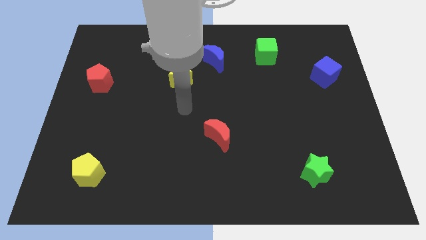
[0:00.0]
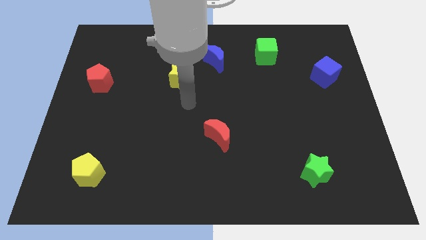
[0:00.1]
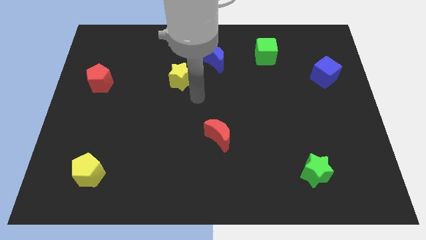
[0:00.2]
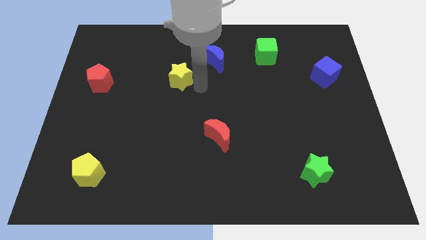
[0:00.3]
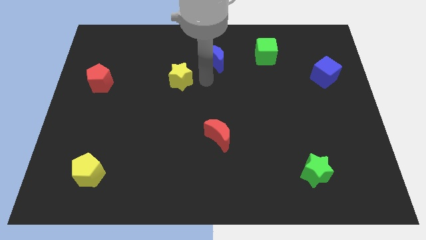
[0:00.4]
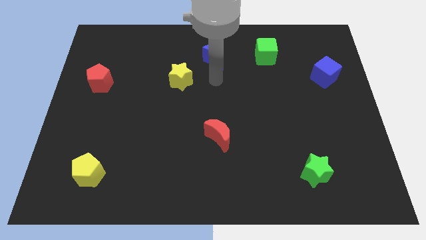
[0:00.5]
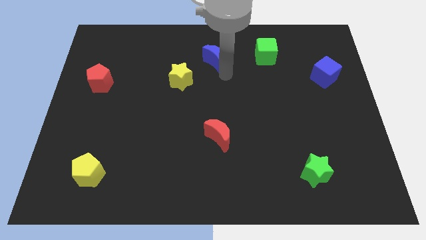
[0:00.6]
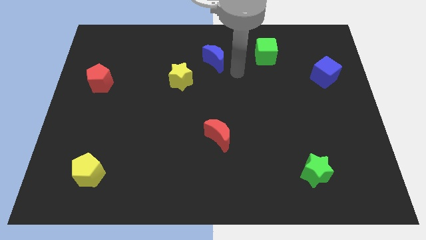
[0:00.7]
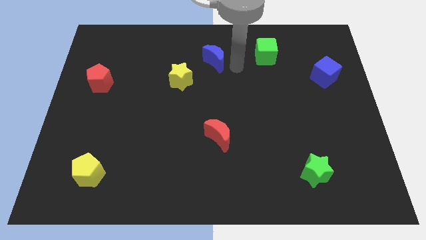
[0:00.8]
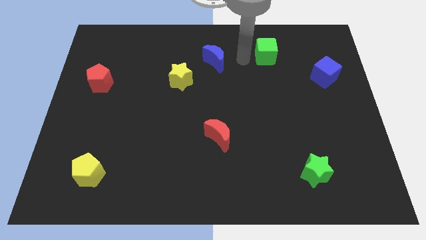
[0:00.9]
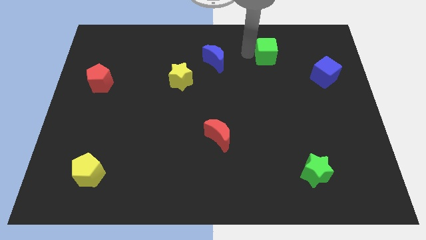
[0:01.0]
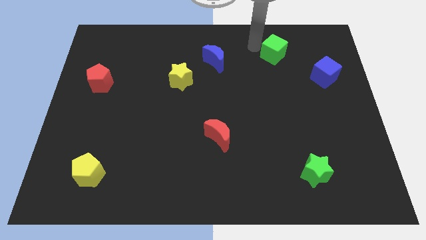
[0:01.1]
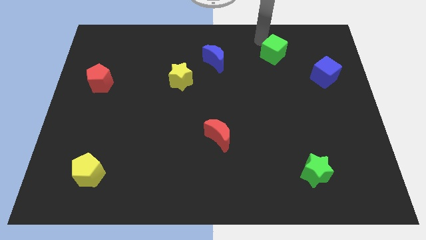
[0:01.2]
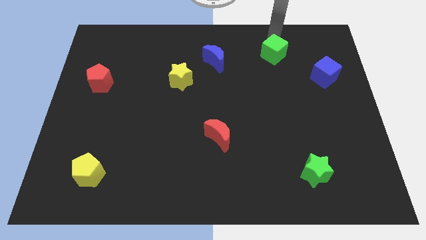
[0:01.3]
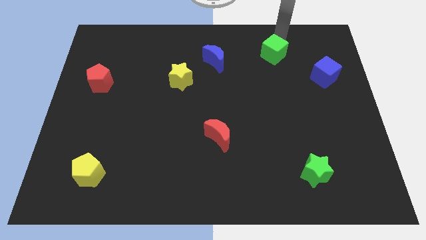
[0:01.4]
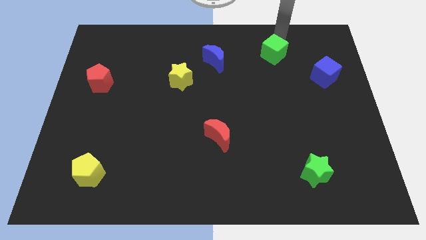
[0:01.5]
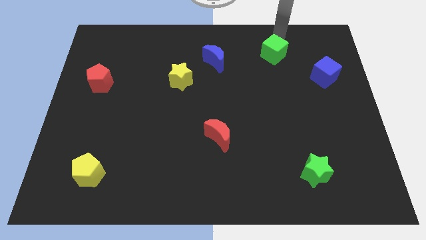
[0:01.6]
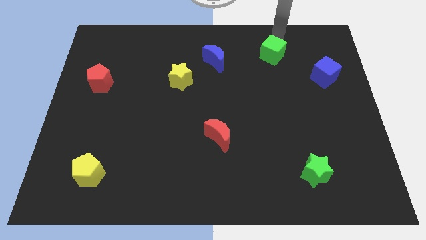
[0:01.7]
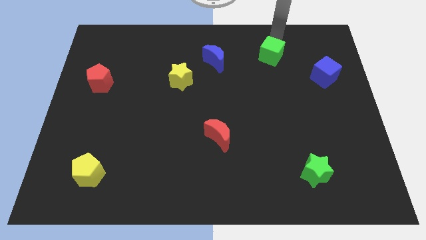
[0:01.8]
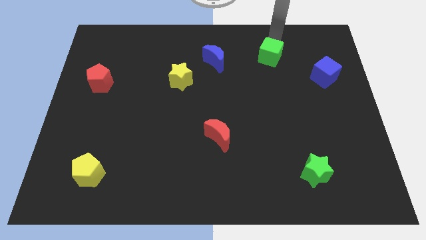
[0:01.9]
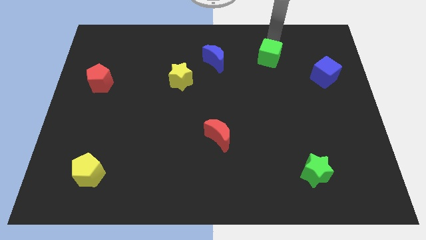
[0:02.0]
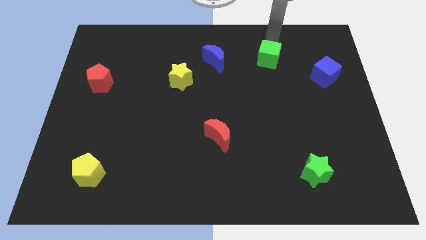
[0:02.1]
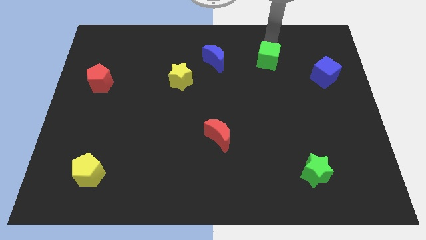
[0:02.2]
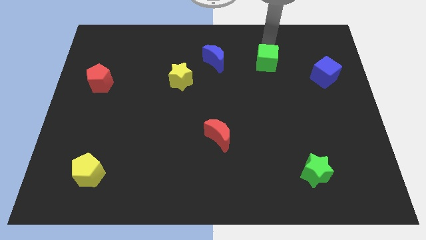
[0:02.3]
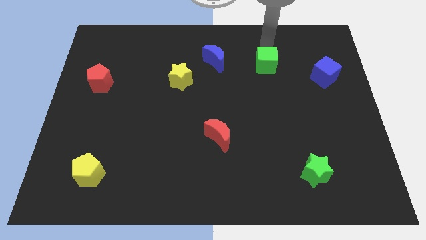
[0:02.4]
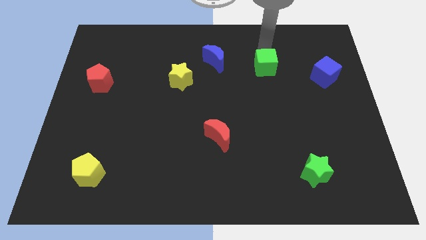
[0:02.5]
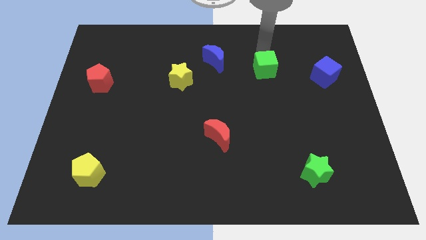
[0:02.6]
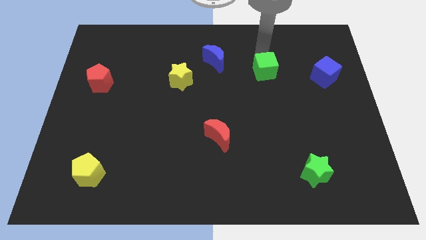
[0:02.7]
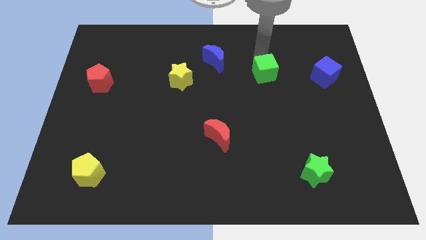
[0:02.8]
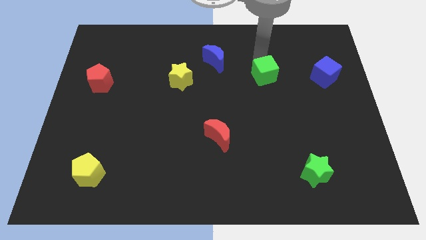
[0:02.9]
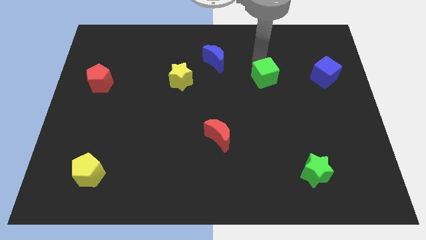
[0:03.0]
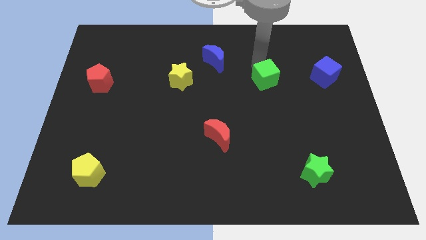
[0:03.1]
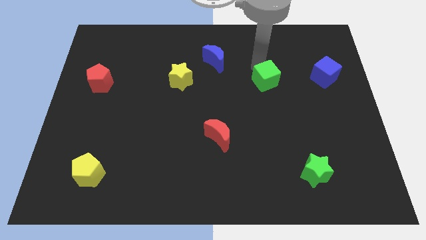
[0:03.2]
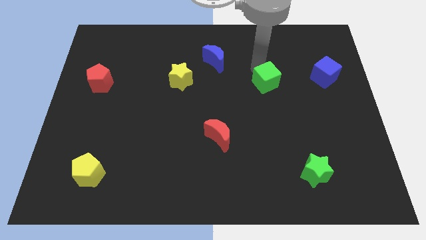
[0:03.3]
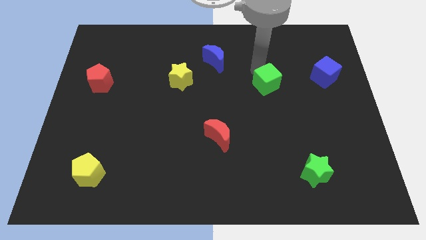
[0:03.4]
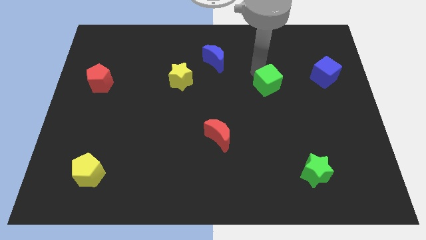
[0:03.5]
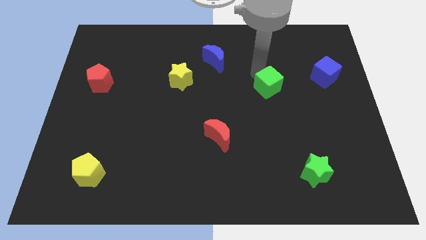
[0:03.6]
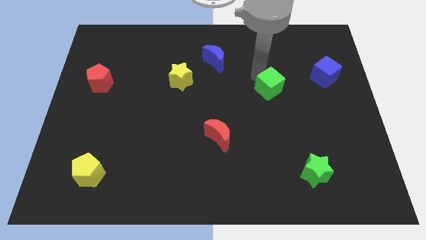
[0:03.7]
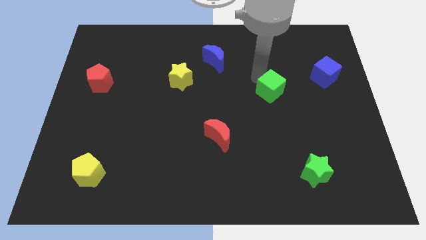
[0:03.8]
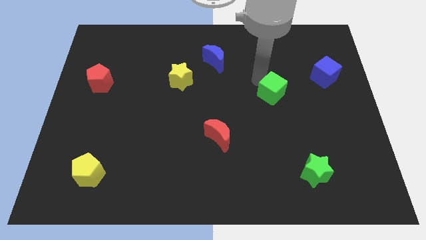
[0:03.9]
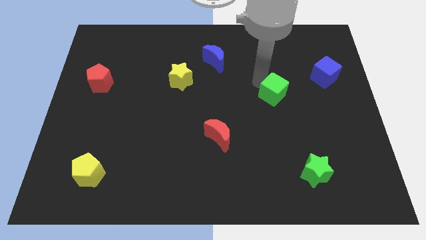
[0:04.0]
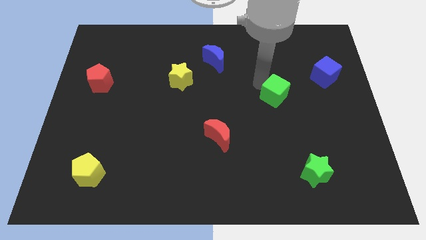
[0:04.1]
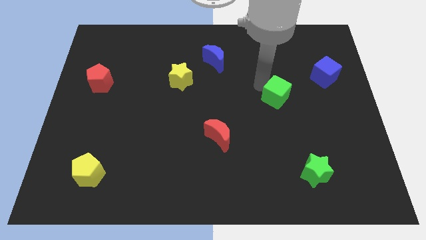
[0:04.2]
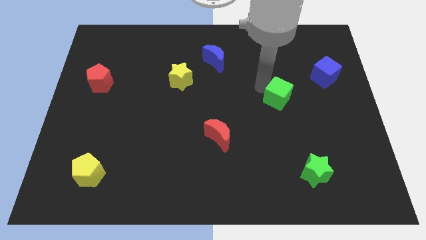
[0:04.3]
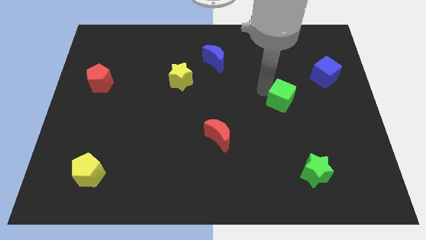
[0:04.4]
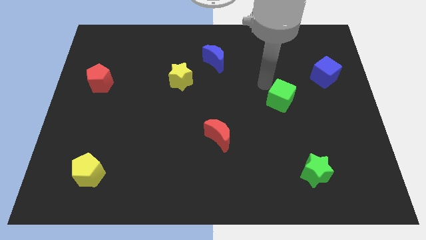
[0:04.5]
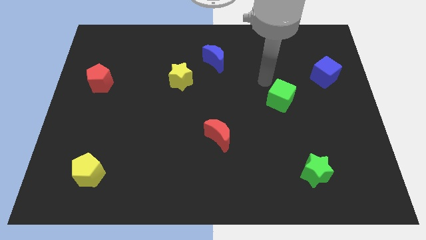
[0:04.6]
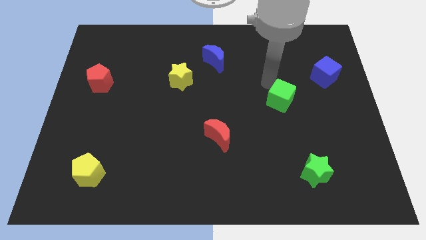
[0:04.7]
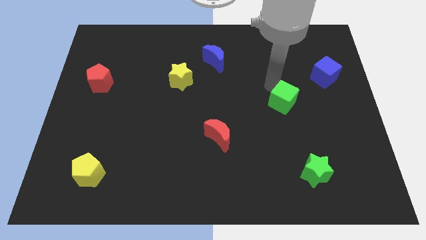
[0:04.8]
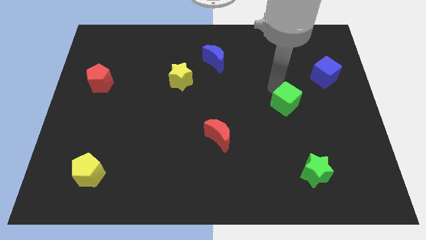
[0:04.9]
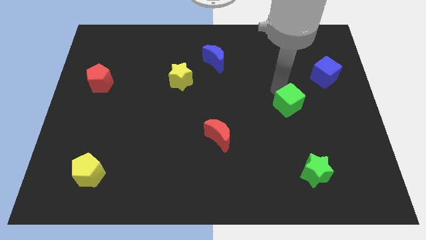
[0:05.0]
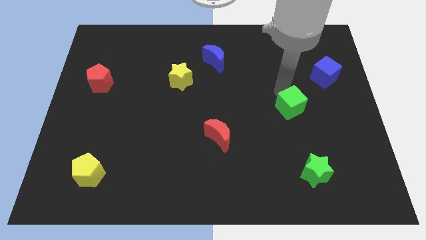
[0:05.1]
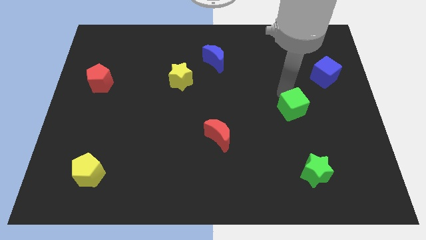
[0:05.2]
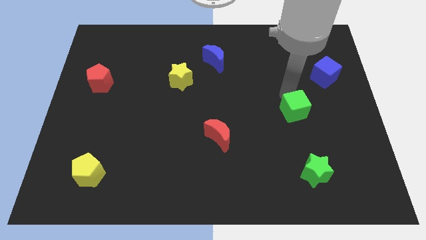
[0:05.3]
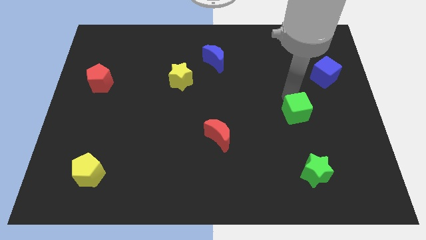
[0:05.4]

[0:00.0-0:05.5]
move the green cube to the top side of the green star
